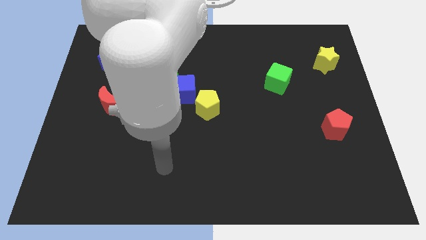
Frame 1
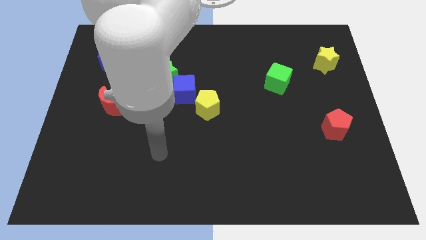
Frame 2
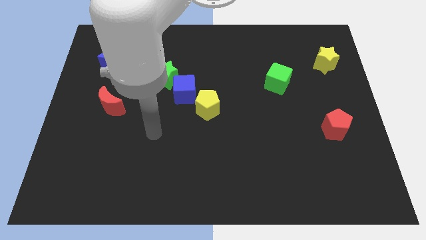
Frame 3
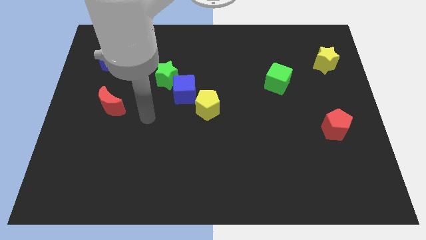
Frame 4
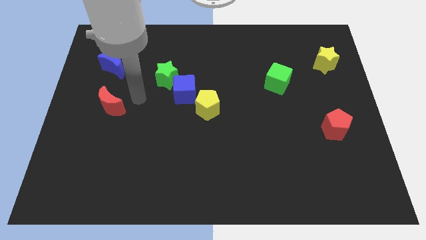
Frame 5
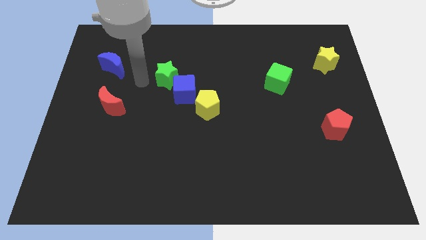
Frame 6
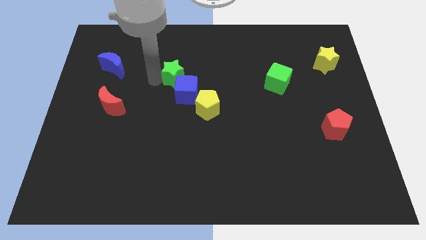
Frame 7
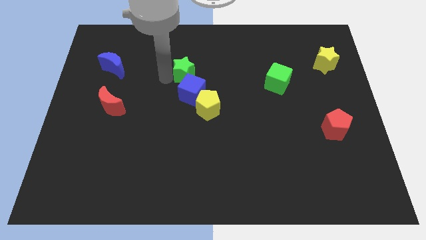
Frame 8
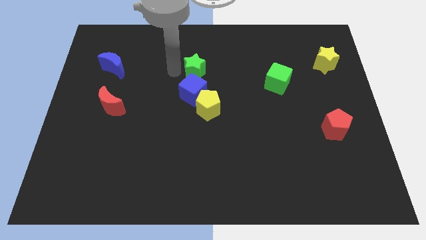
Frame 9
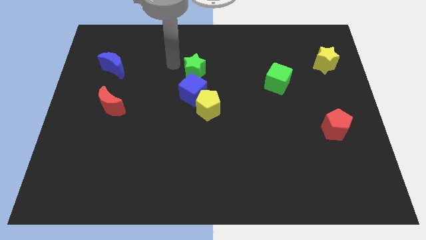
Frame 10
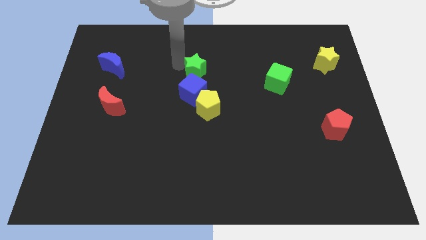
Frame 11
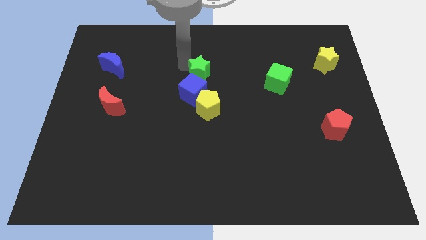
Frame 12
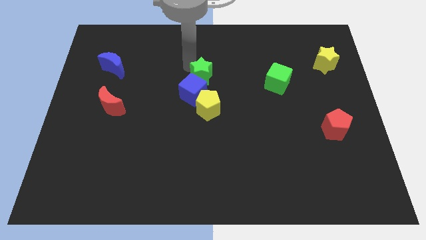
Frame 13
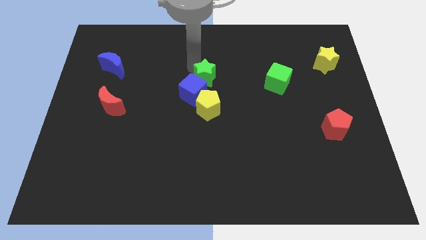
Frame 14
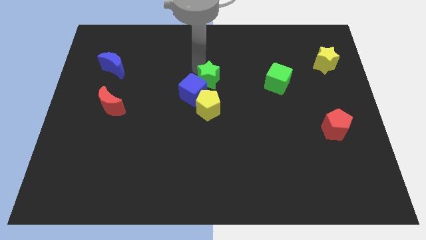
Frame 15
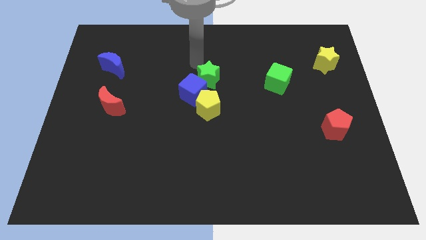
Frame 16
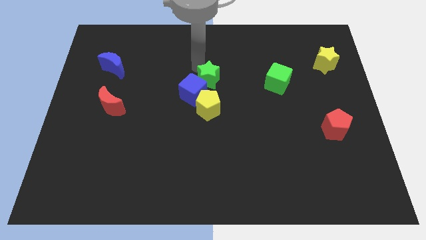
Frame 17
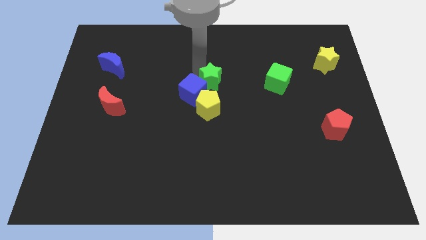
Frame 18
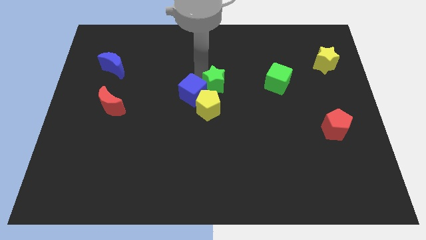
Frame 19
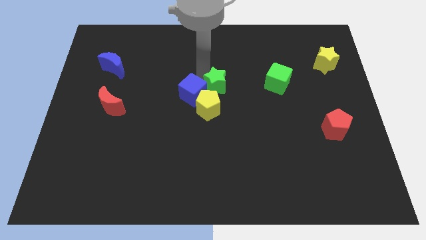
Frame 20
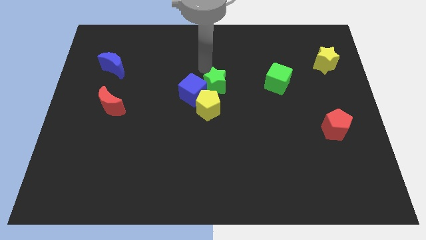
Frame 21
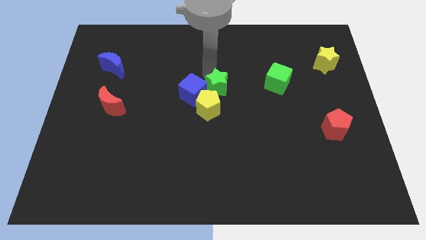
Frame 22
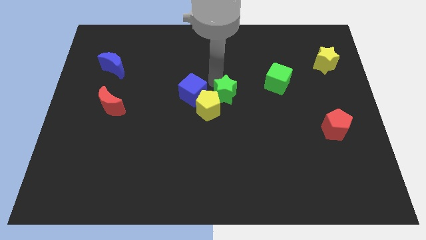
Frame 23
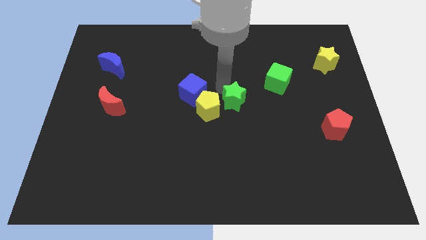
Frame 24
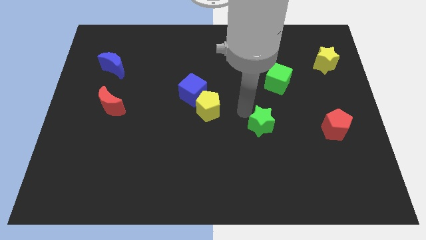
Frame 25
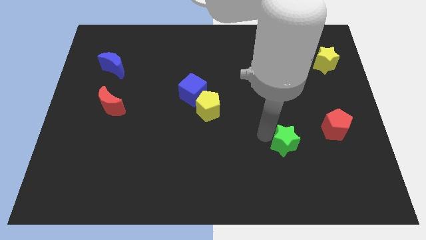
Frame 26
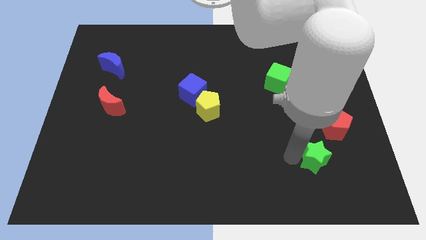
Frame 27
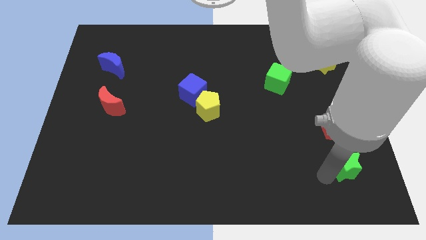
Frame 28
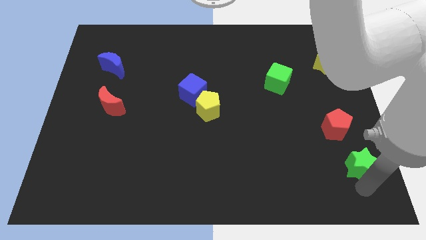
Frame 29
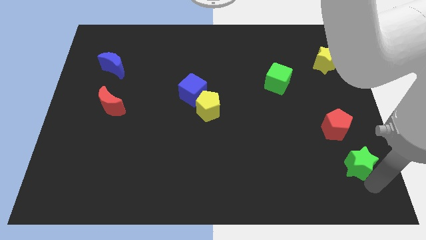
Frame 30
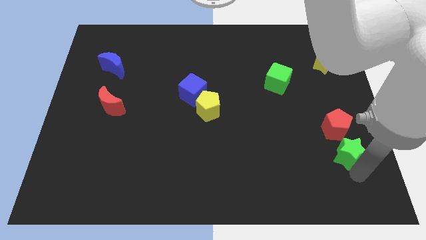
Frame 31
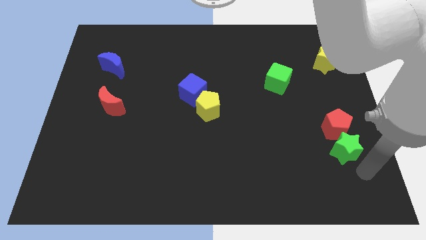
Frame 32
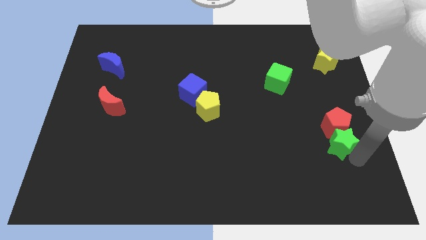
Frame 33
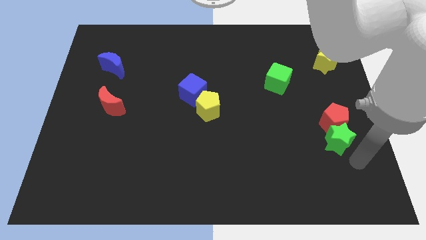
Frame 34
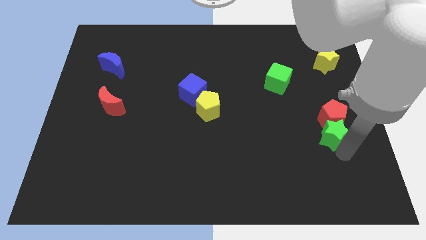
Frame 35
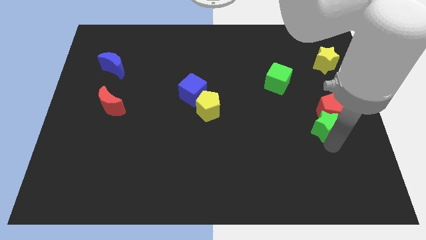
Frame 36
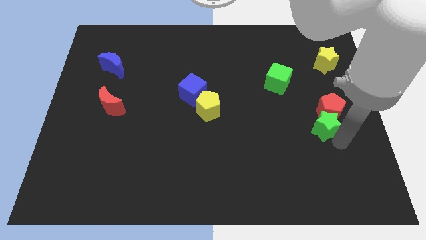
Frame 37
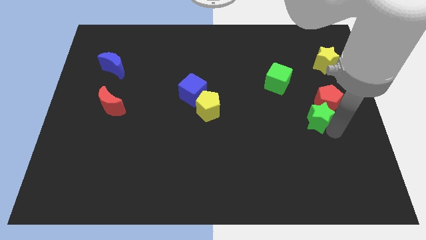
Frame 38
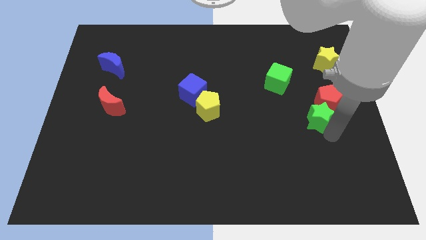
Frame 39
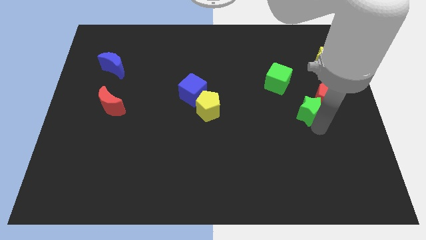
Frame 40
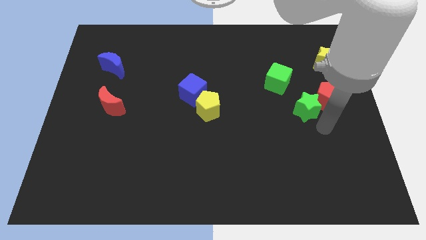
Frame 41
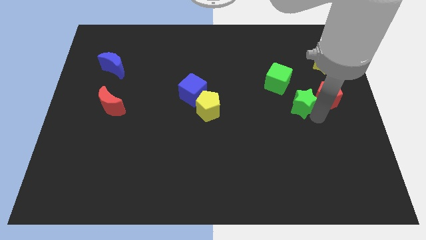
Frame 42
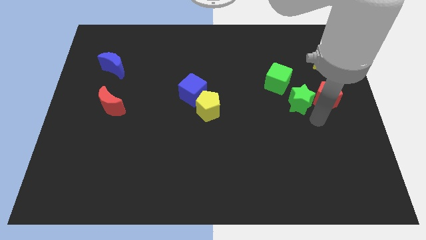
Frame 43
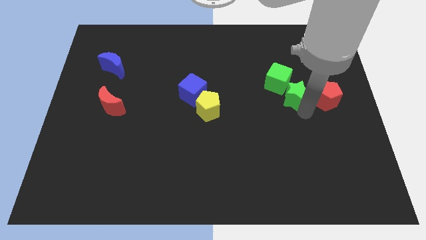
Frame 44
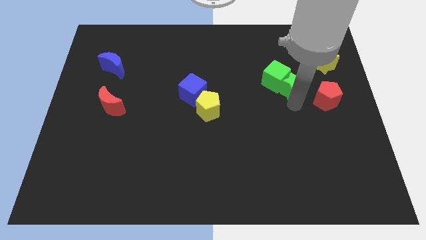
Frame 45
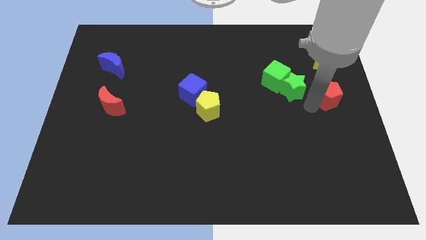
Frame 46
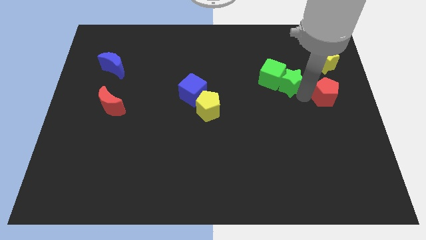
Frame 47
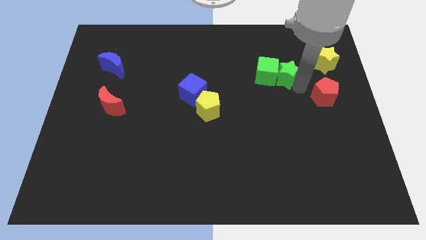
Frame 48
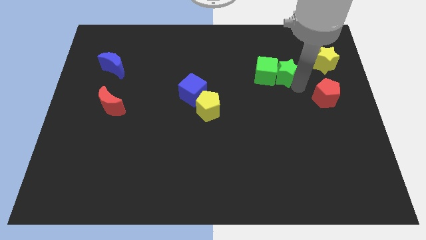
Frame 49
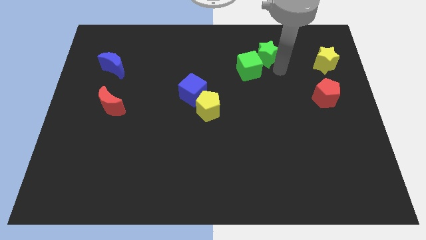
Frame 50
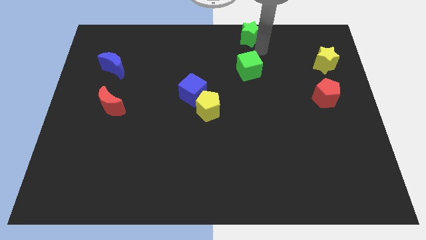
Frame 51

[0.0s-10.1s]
slide the green star to the towards your base

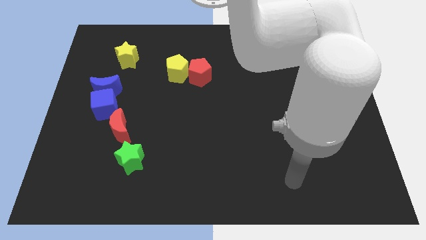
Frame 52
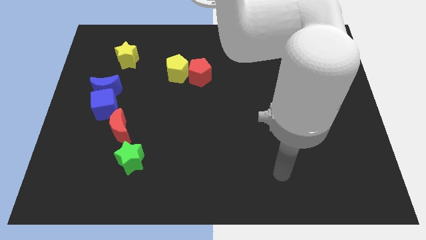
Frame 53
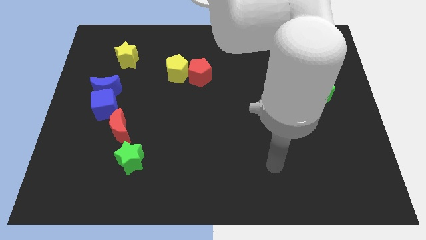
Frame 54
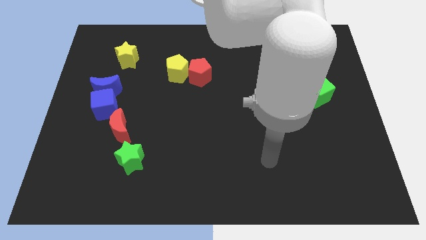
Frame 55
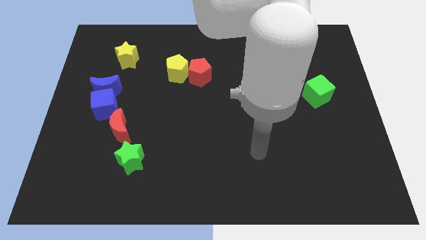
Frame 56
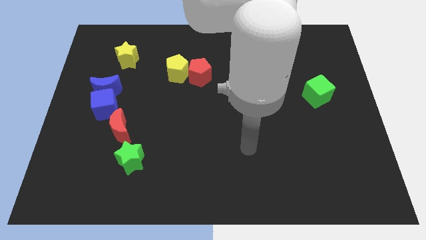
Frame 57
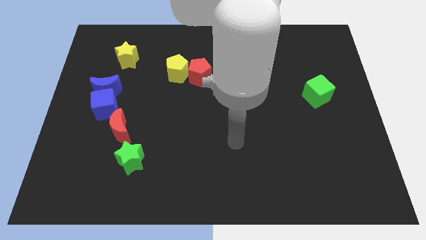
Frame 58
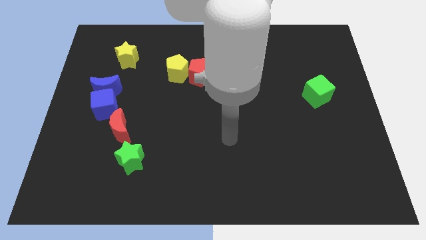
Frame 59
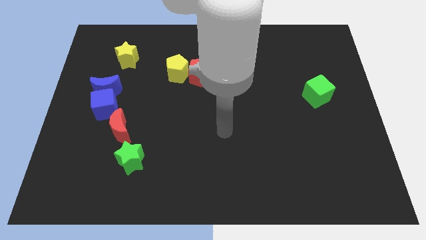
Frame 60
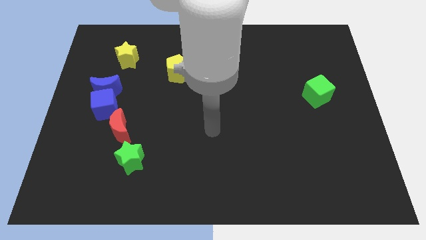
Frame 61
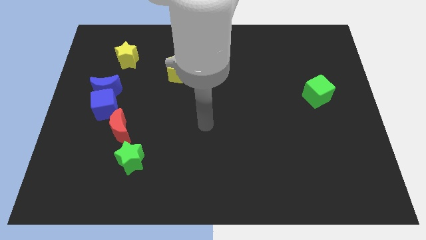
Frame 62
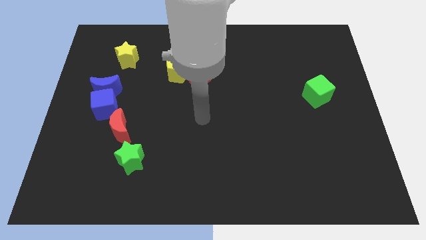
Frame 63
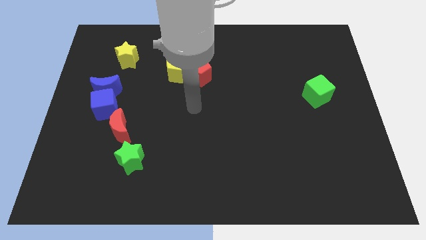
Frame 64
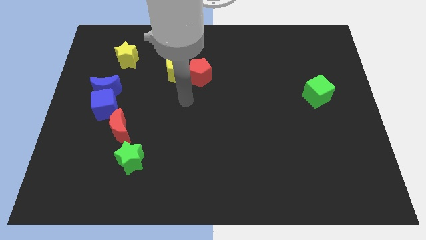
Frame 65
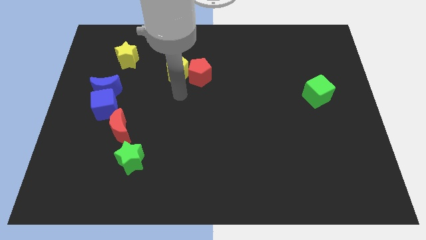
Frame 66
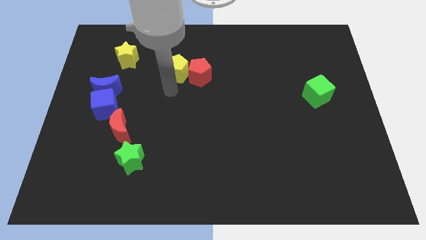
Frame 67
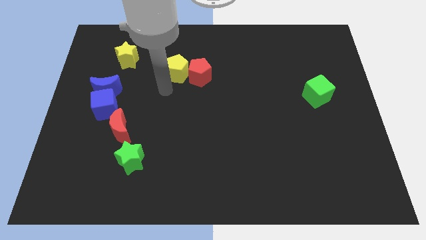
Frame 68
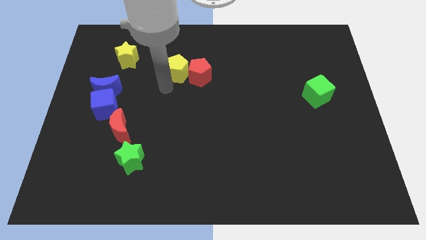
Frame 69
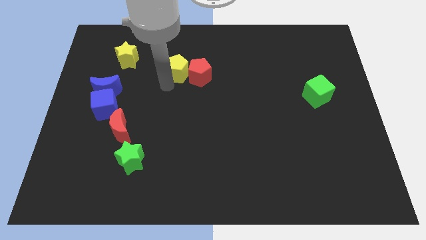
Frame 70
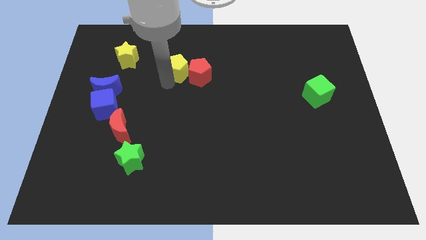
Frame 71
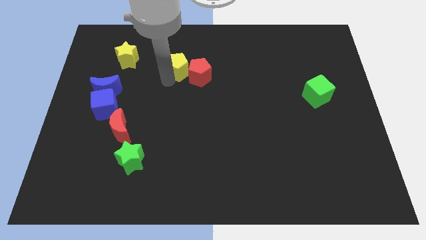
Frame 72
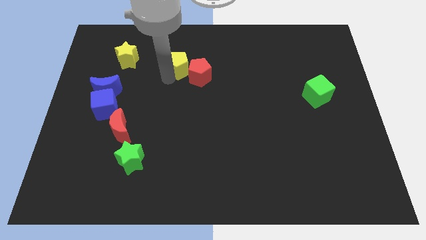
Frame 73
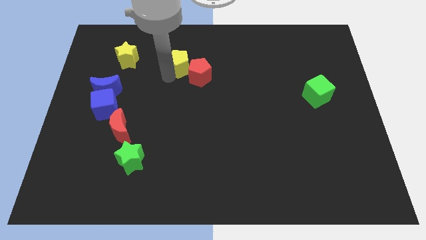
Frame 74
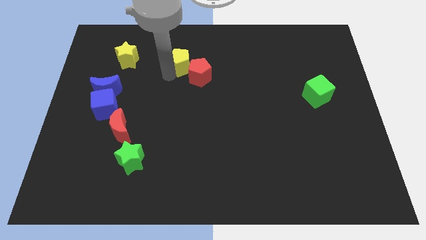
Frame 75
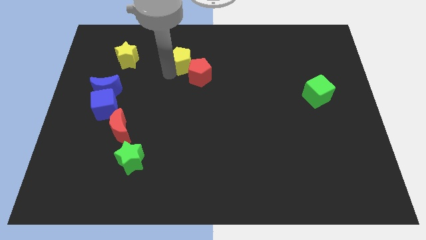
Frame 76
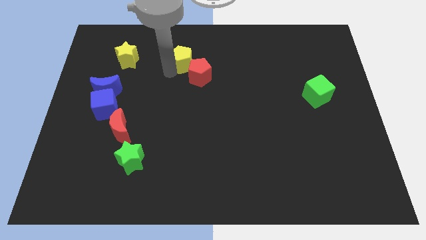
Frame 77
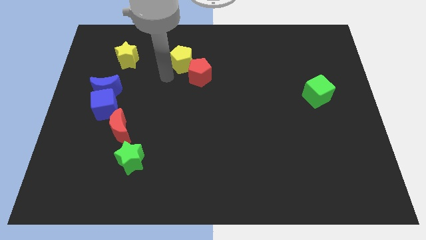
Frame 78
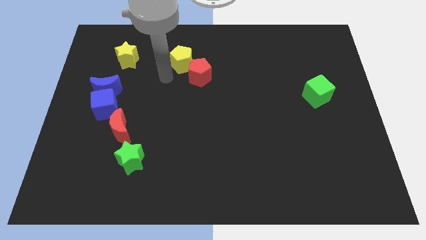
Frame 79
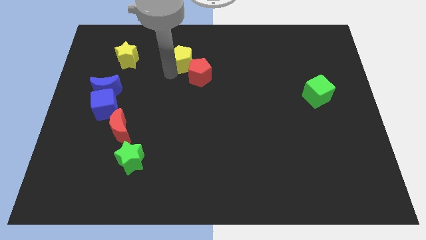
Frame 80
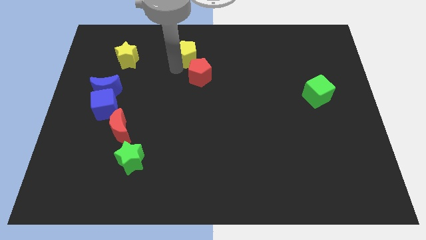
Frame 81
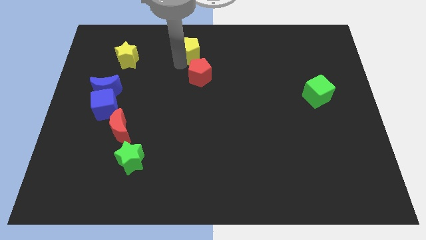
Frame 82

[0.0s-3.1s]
slide the yellow pentagon to the towards your base
